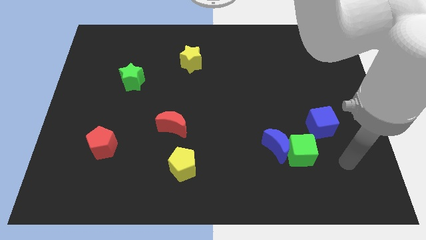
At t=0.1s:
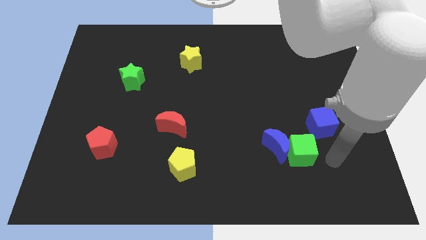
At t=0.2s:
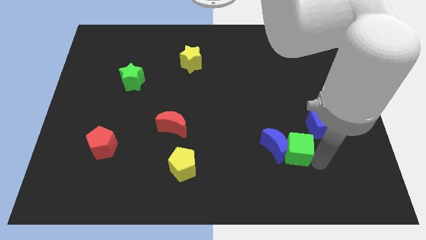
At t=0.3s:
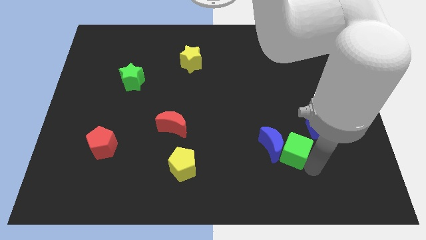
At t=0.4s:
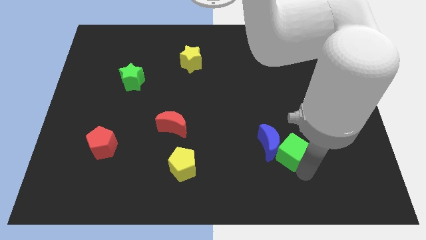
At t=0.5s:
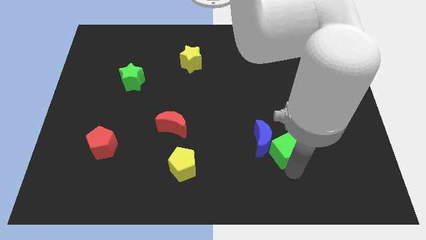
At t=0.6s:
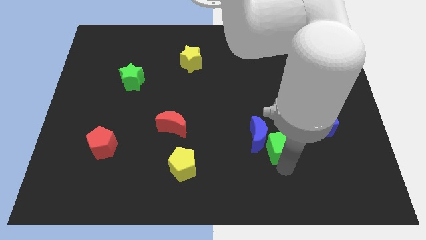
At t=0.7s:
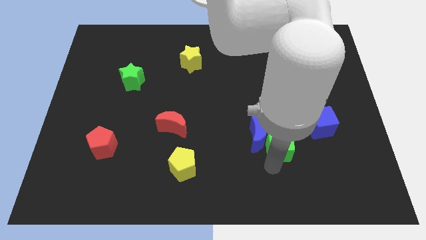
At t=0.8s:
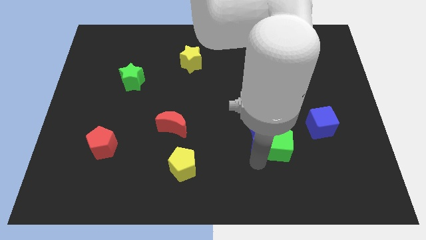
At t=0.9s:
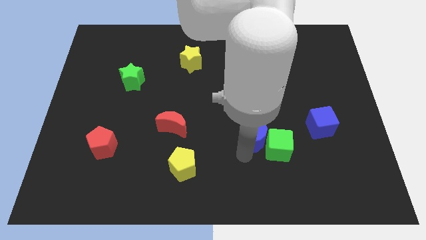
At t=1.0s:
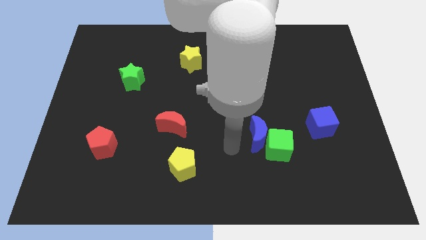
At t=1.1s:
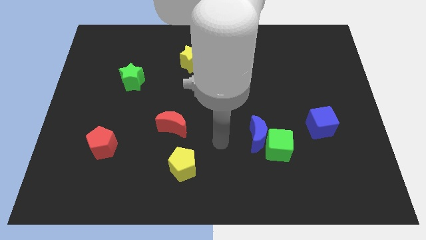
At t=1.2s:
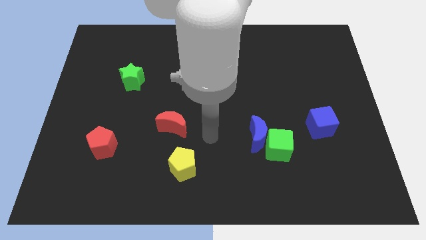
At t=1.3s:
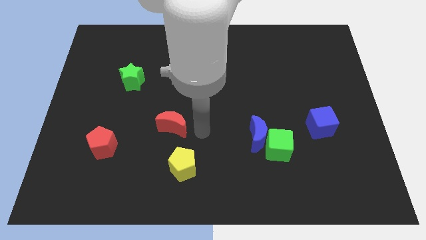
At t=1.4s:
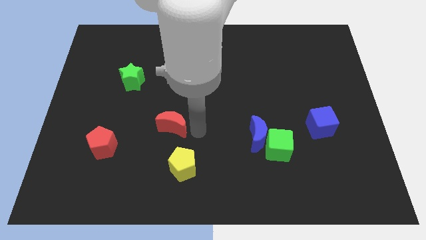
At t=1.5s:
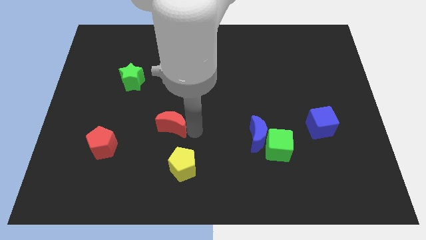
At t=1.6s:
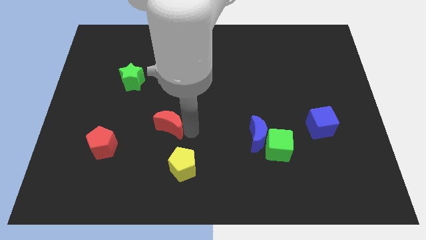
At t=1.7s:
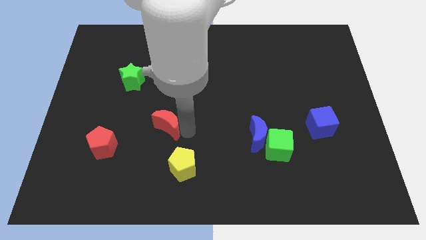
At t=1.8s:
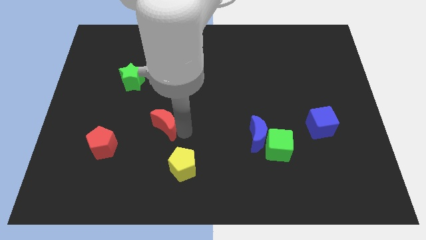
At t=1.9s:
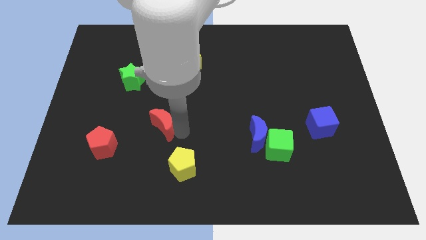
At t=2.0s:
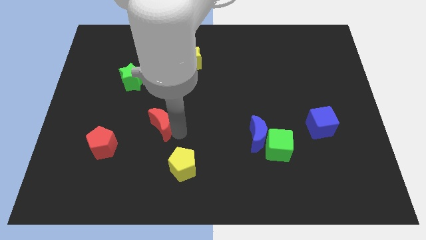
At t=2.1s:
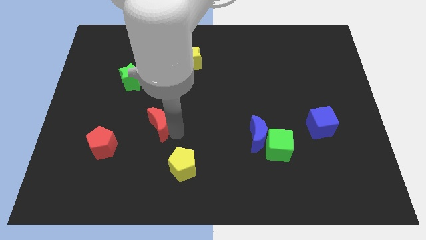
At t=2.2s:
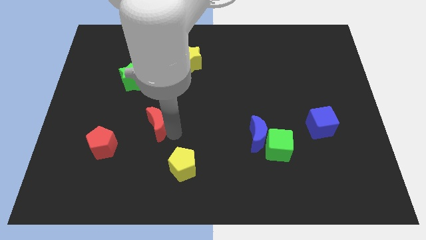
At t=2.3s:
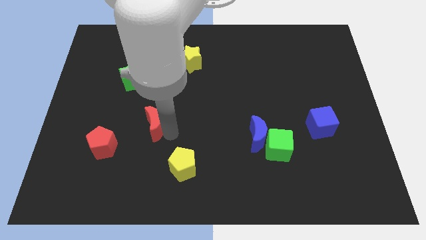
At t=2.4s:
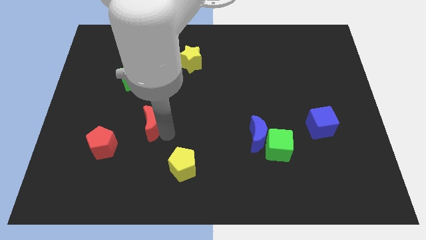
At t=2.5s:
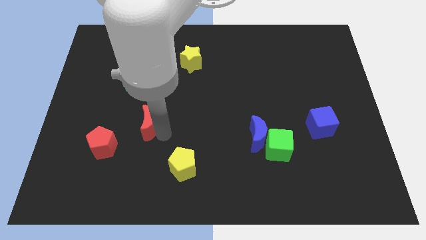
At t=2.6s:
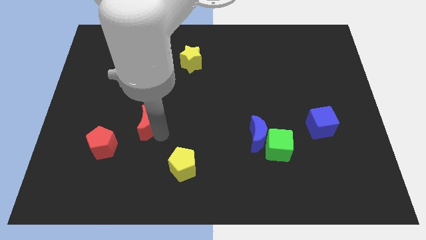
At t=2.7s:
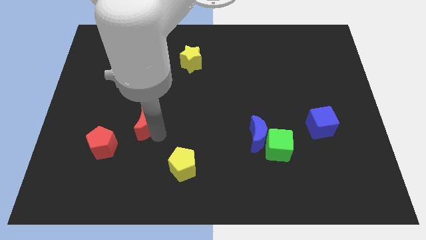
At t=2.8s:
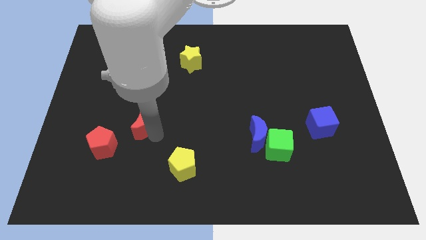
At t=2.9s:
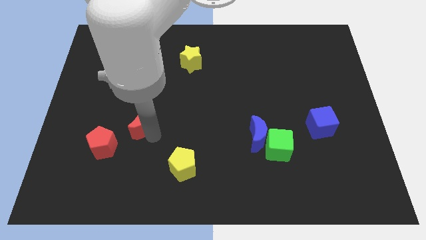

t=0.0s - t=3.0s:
slide the red moon slightly to the left

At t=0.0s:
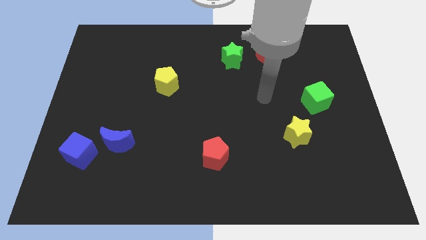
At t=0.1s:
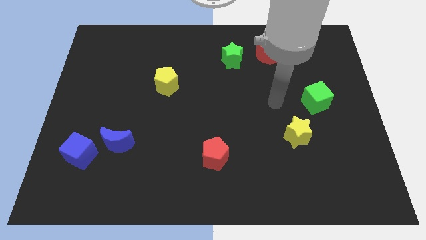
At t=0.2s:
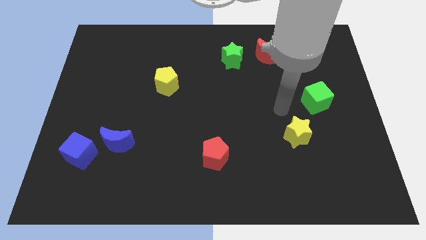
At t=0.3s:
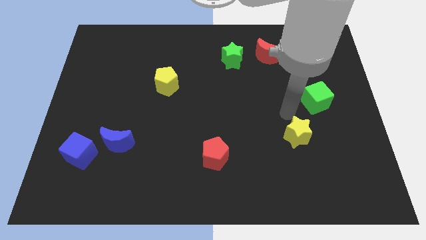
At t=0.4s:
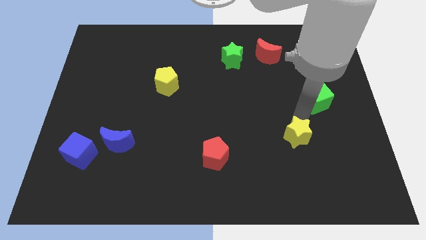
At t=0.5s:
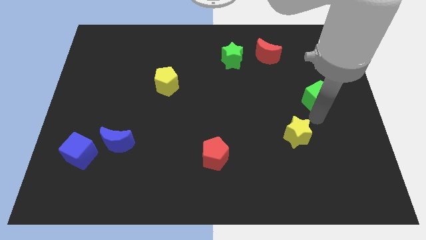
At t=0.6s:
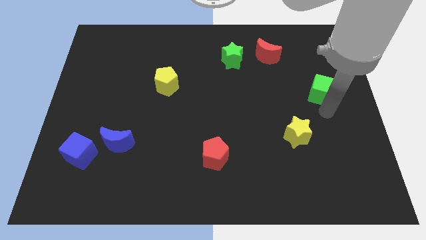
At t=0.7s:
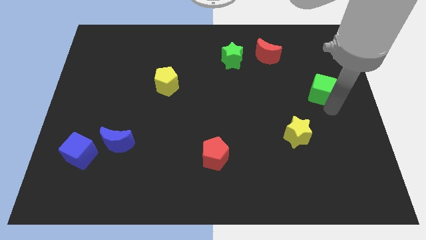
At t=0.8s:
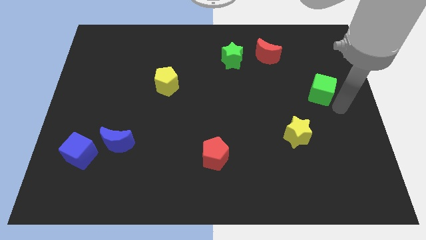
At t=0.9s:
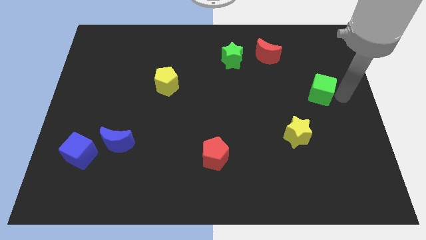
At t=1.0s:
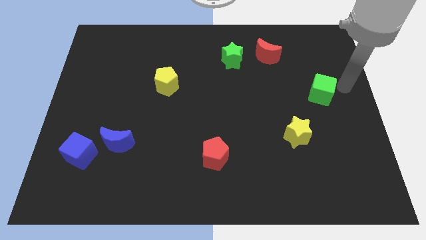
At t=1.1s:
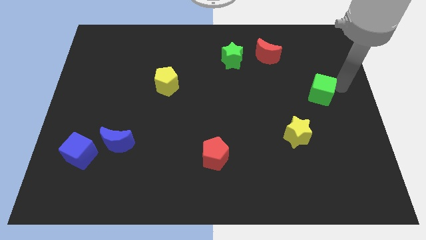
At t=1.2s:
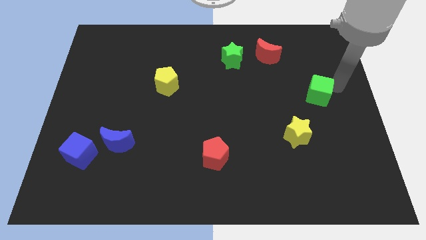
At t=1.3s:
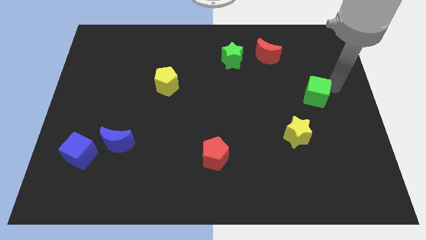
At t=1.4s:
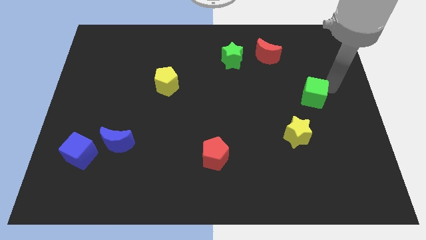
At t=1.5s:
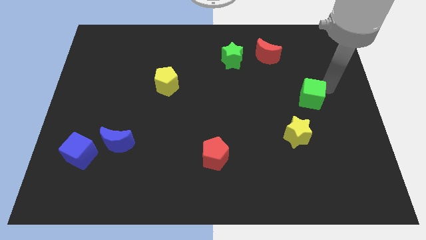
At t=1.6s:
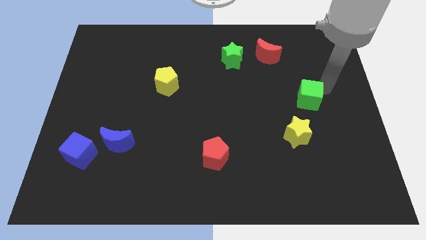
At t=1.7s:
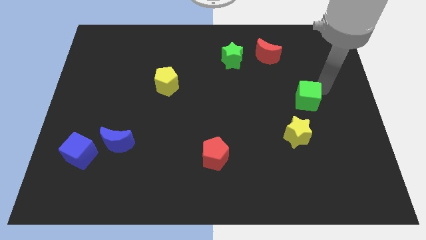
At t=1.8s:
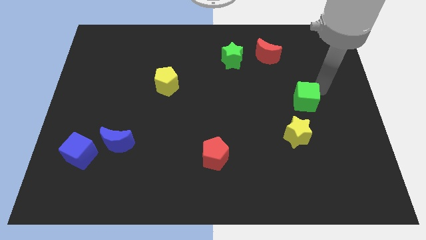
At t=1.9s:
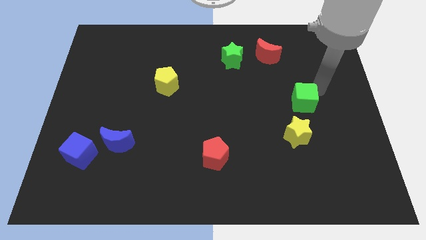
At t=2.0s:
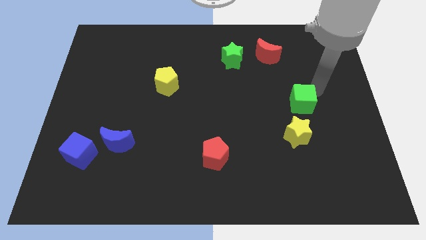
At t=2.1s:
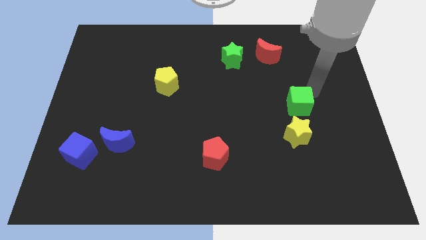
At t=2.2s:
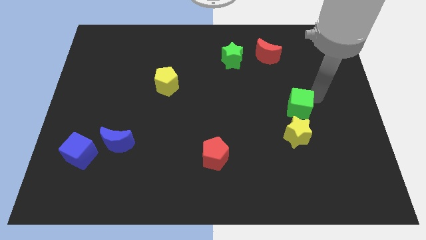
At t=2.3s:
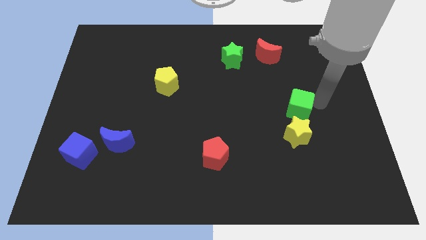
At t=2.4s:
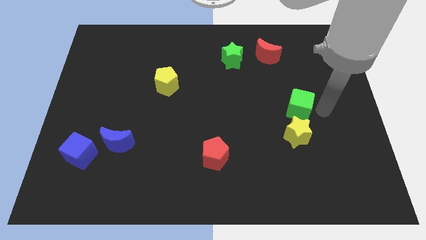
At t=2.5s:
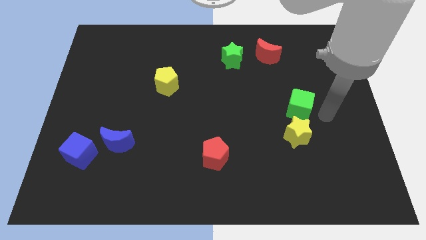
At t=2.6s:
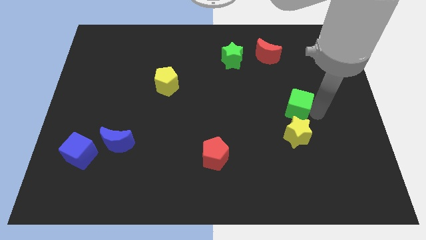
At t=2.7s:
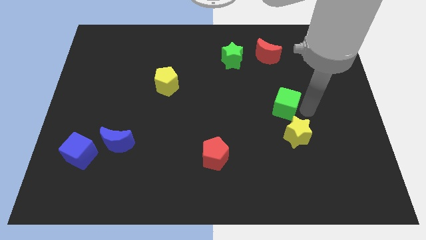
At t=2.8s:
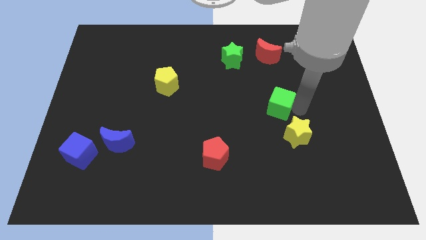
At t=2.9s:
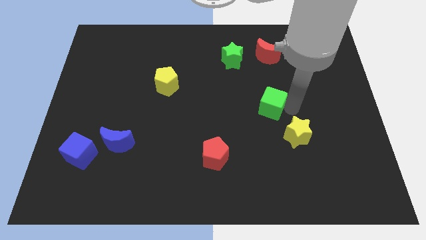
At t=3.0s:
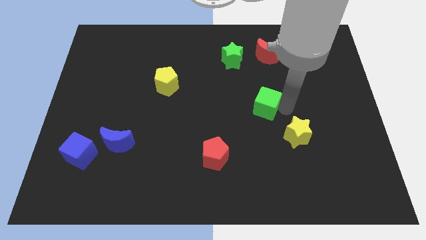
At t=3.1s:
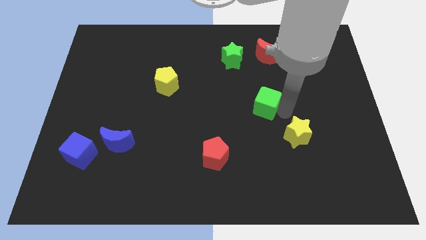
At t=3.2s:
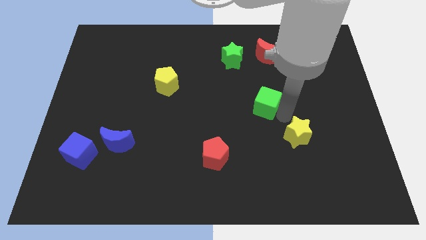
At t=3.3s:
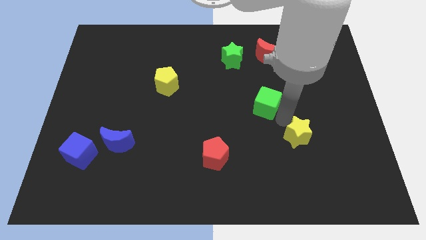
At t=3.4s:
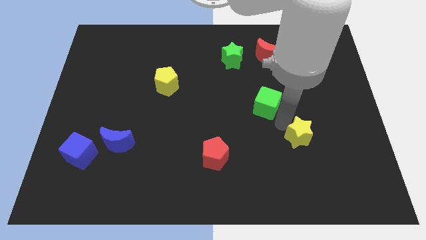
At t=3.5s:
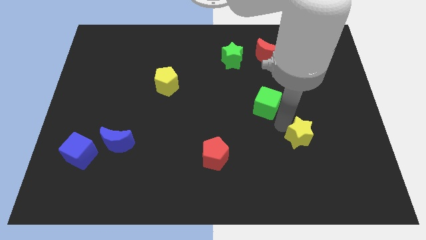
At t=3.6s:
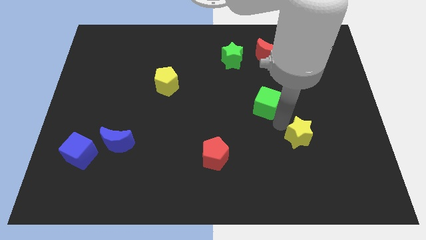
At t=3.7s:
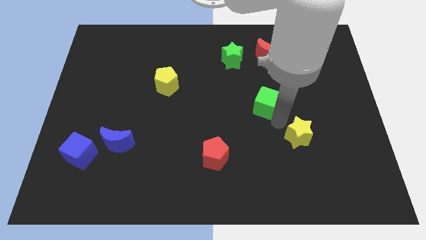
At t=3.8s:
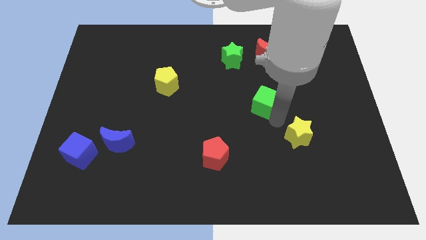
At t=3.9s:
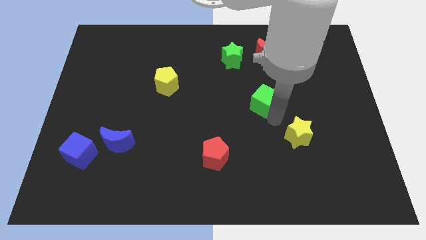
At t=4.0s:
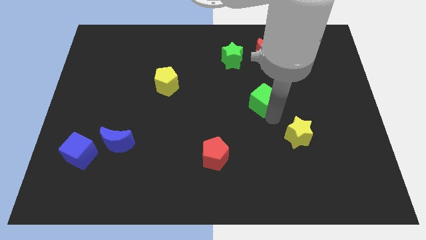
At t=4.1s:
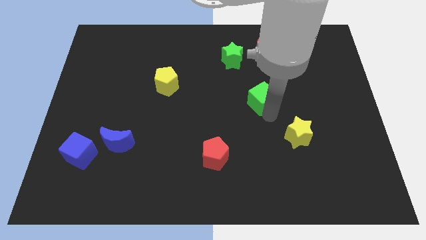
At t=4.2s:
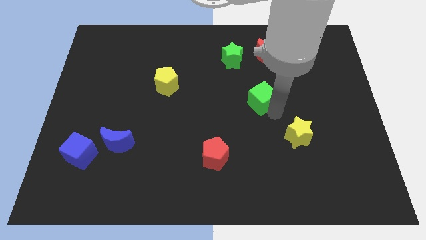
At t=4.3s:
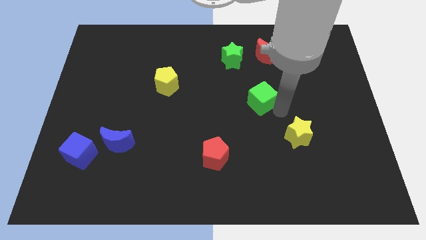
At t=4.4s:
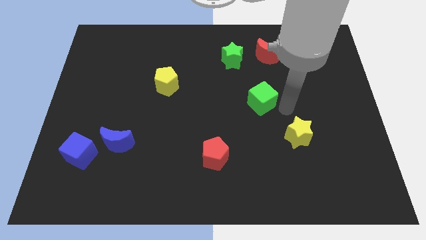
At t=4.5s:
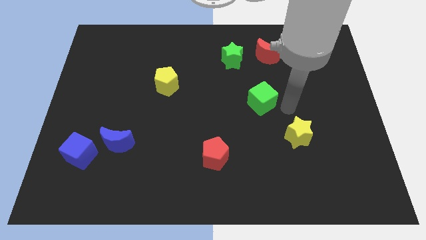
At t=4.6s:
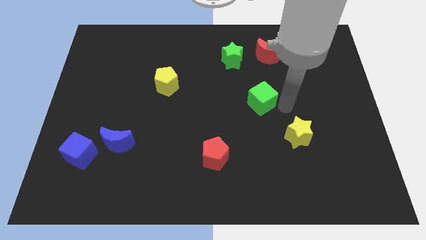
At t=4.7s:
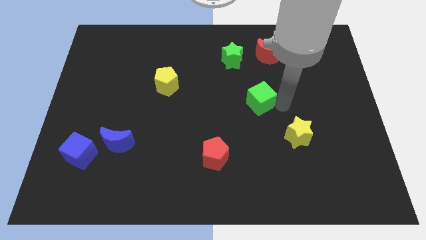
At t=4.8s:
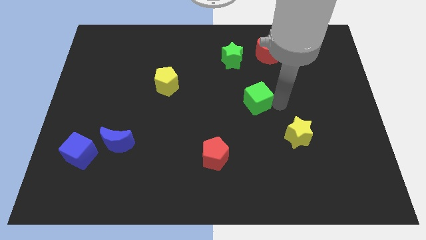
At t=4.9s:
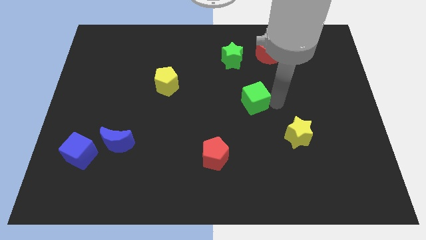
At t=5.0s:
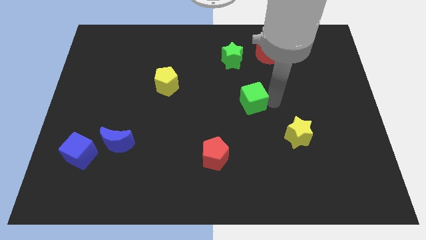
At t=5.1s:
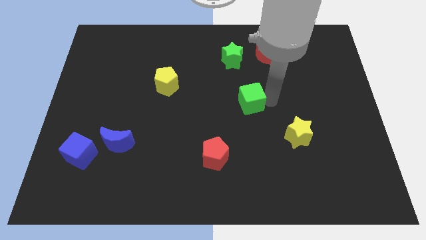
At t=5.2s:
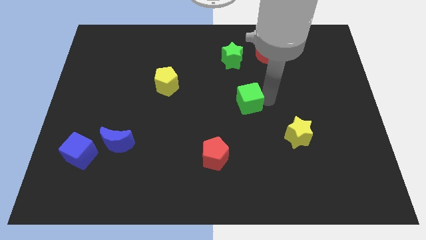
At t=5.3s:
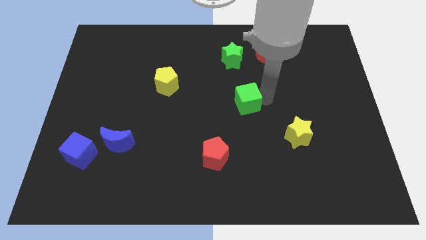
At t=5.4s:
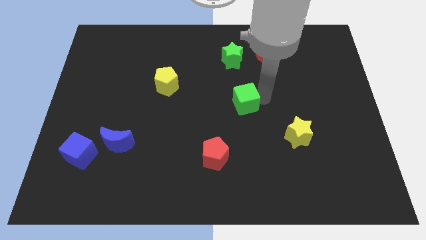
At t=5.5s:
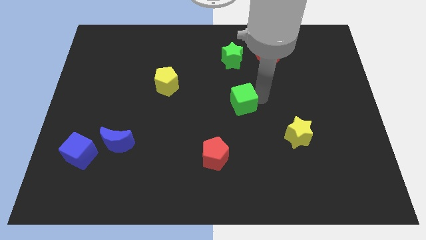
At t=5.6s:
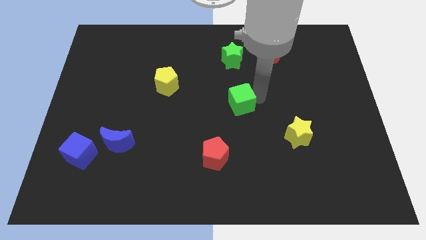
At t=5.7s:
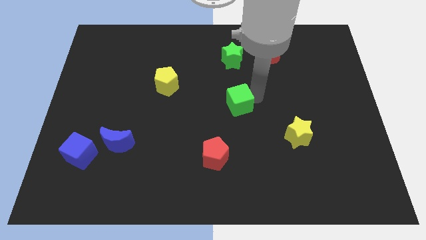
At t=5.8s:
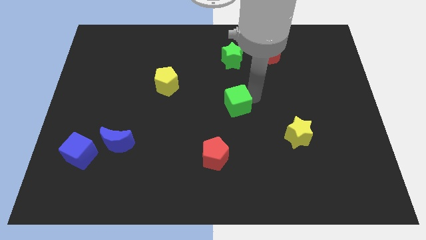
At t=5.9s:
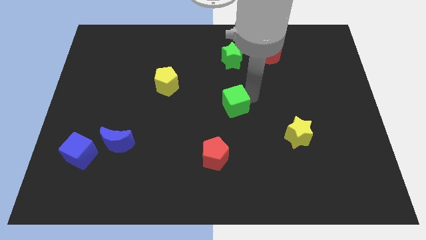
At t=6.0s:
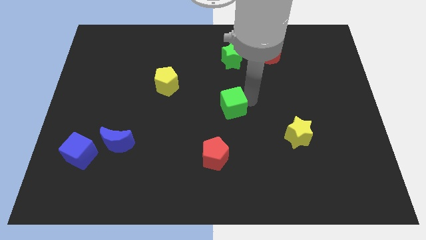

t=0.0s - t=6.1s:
push the green cube left
